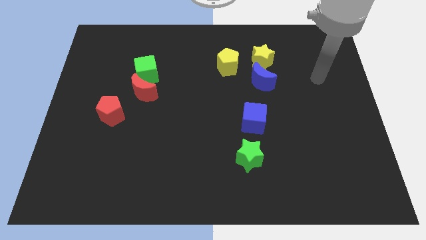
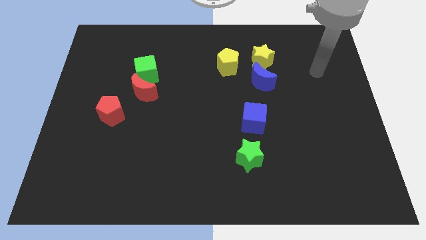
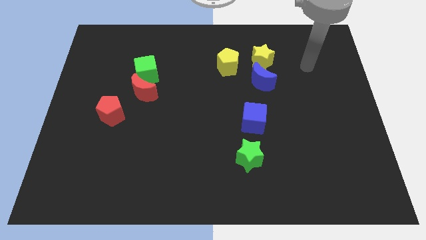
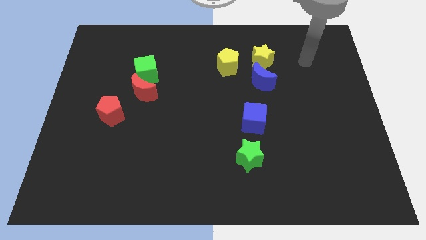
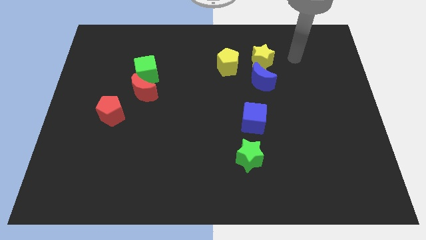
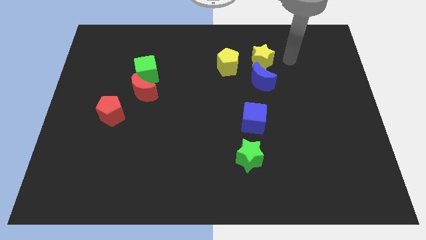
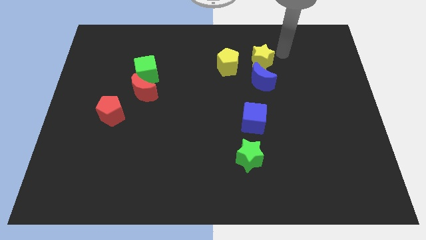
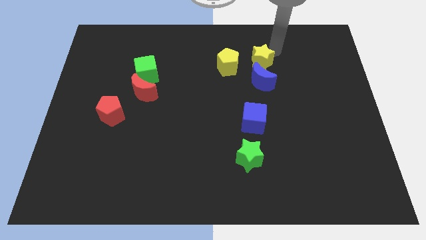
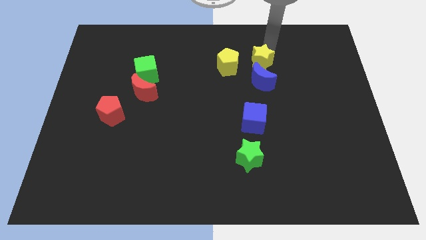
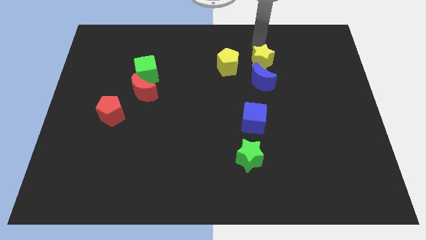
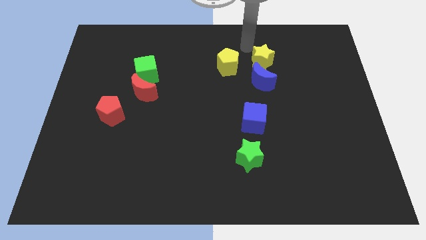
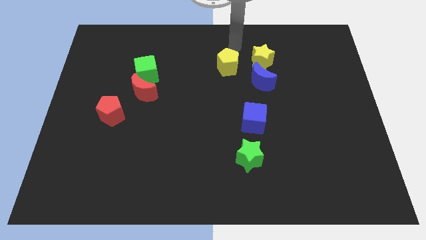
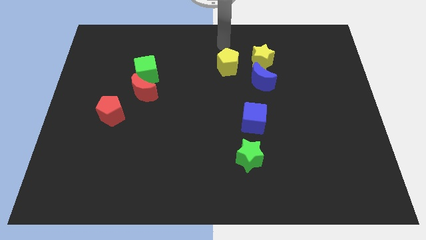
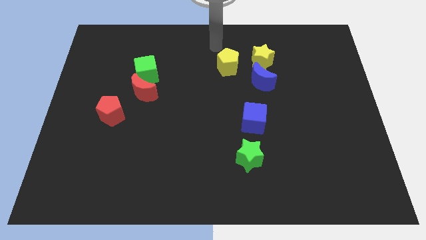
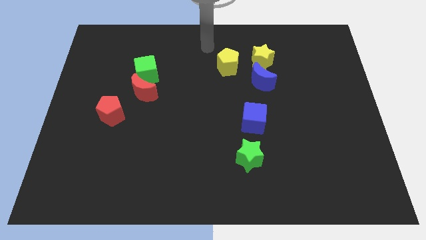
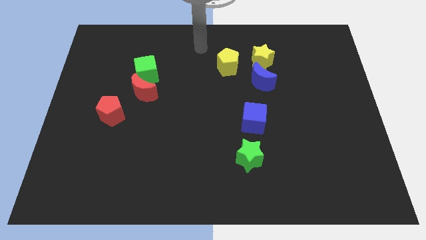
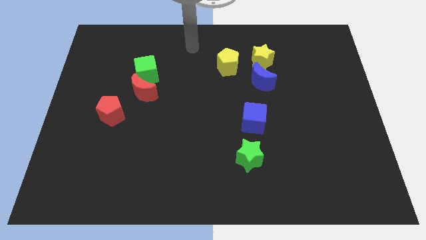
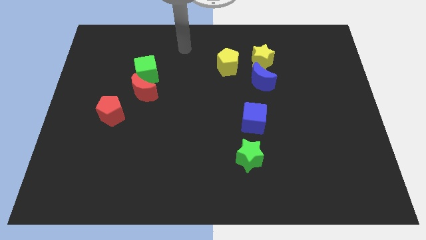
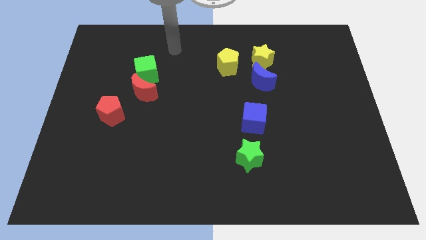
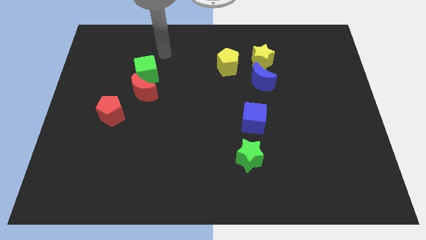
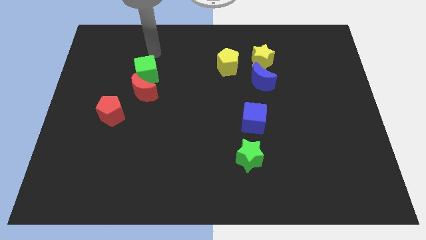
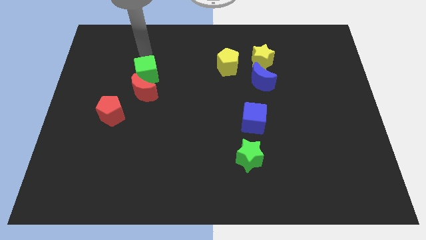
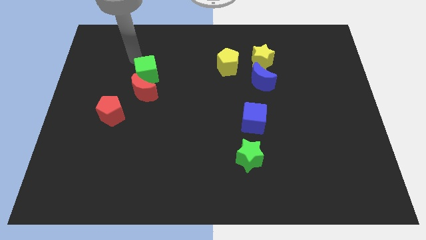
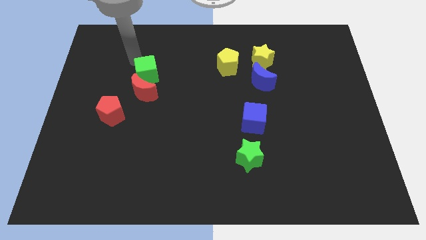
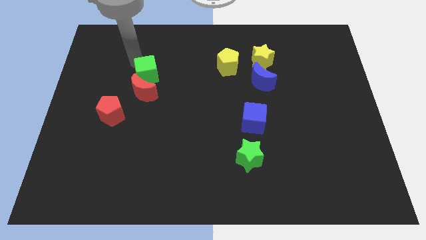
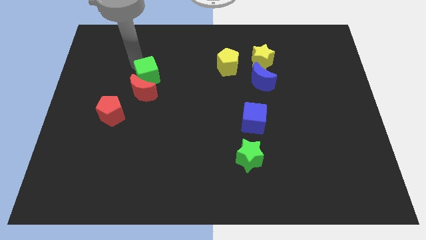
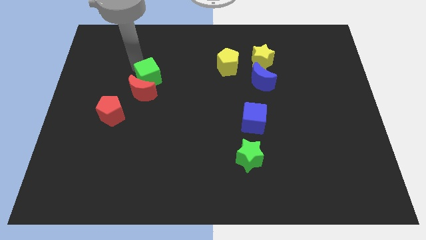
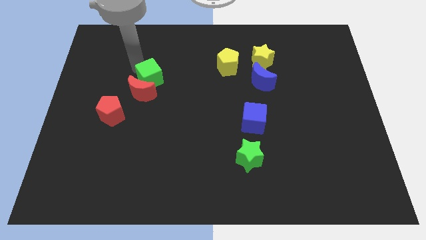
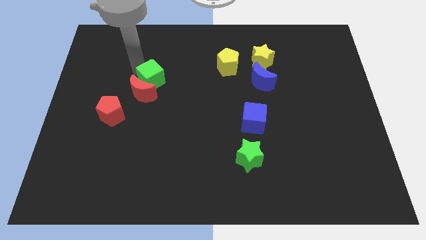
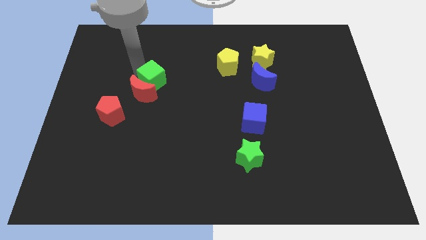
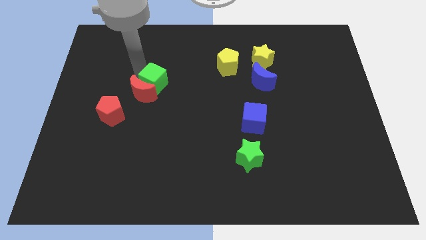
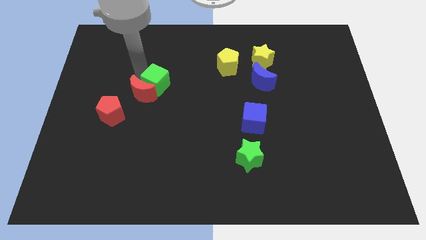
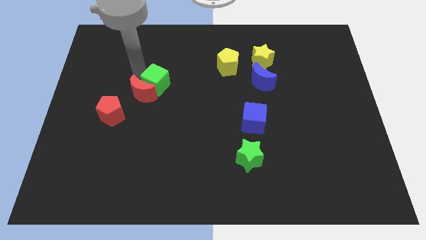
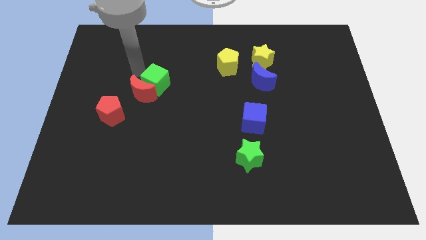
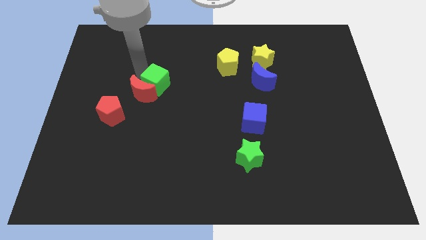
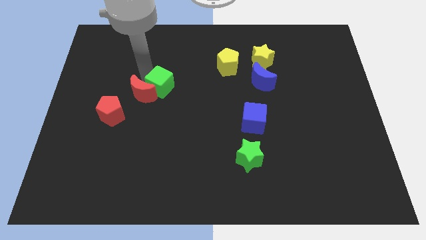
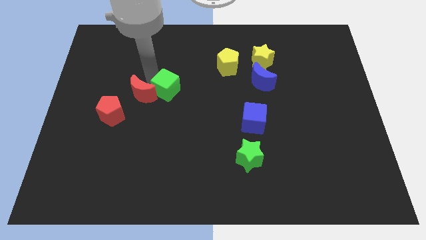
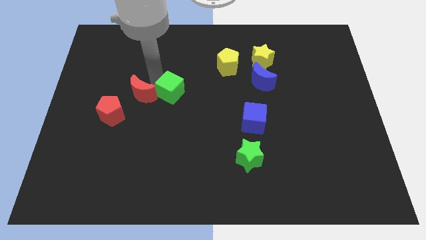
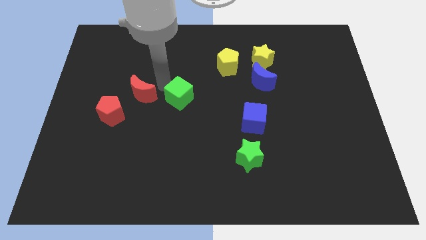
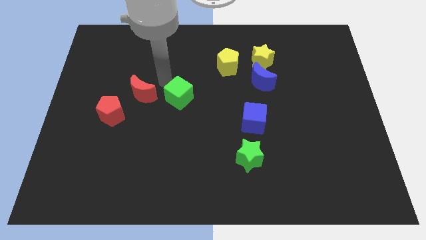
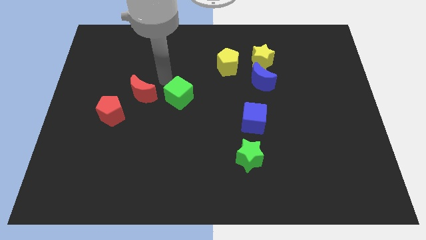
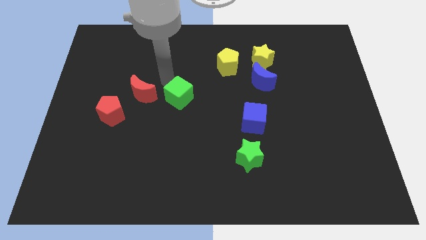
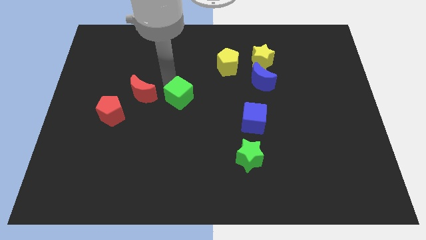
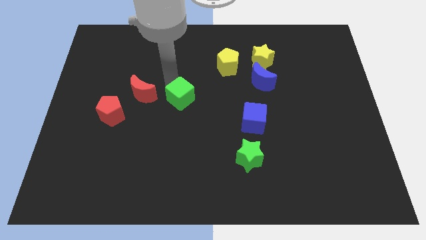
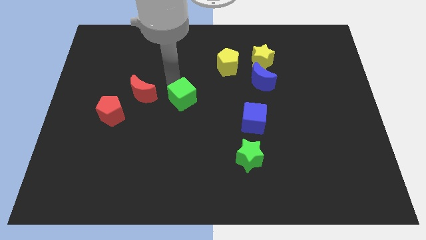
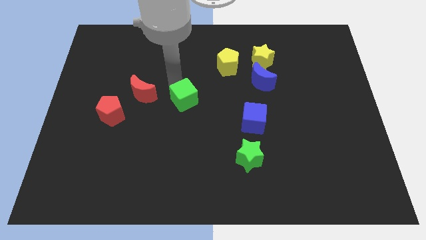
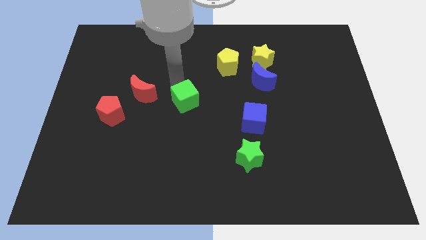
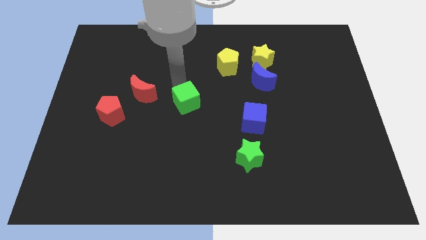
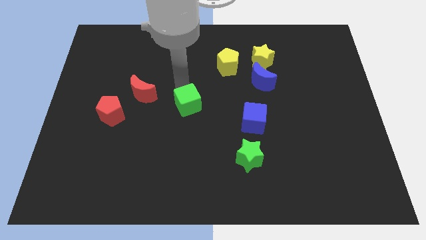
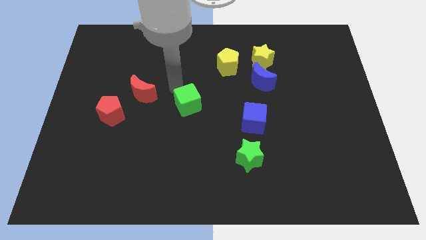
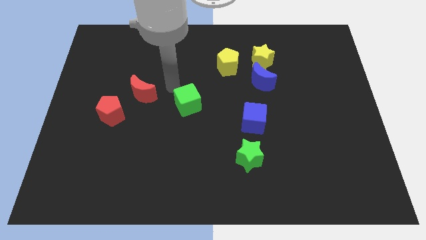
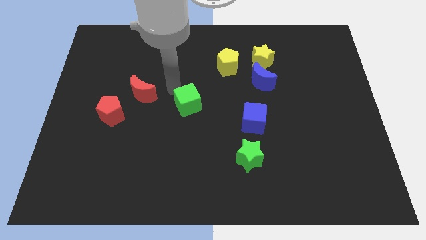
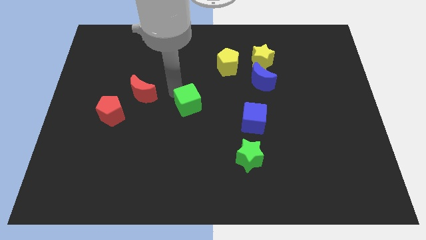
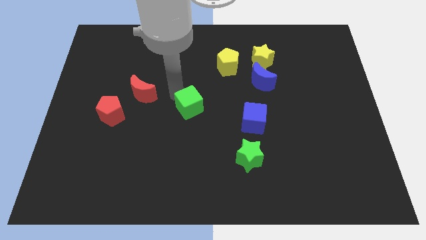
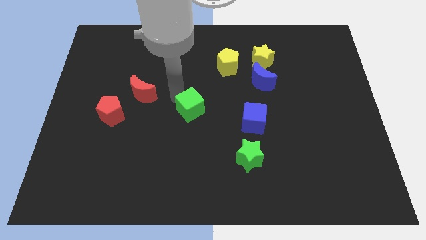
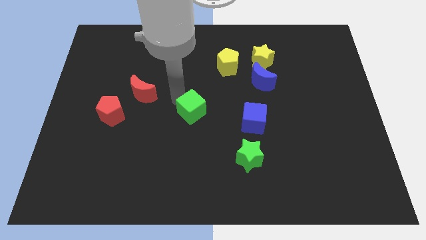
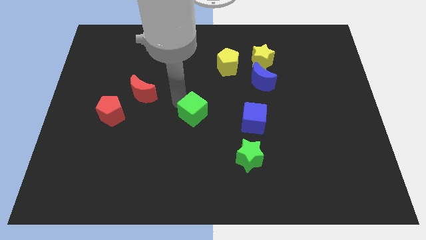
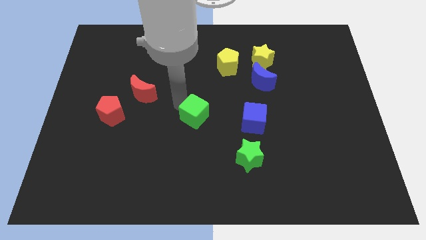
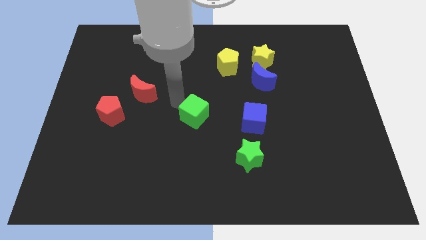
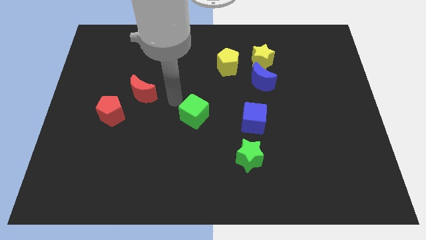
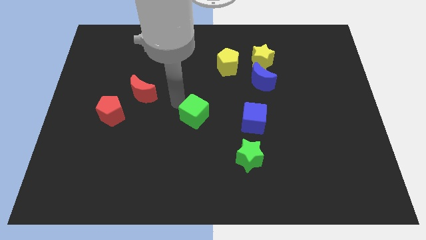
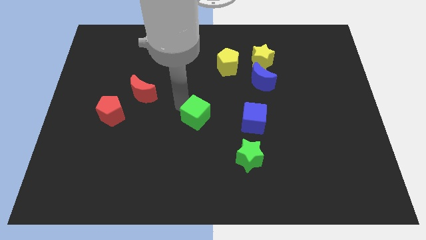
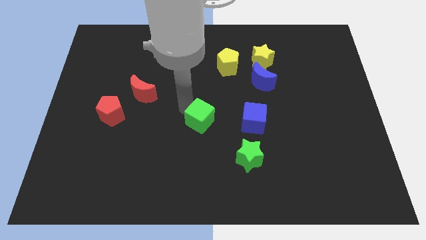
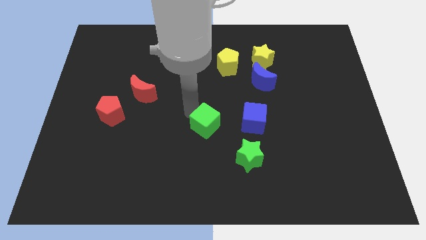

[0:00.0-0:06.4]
put the green cube to the top left side of the green star
